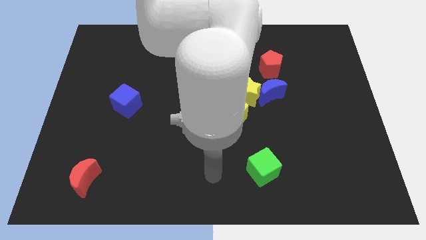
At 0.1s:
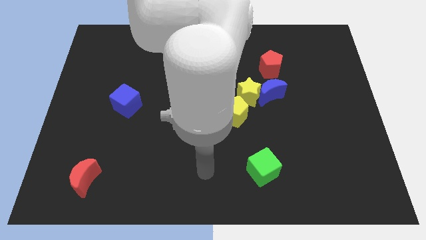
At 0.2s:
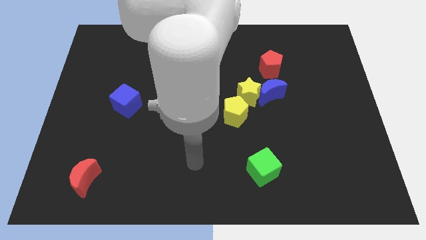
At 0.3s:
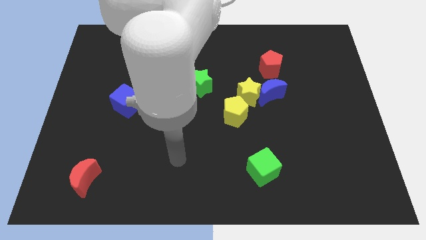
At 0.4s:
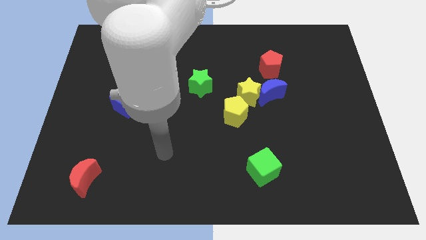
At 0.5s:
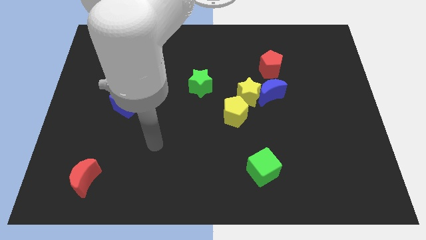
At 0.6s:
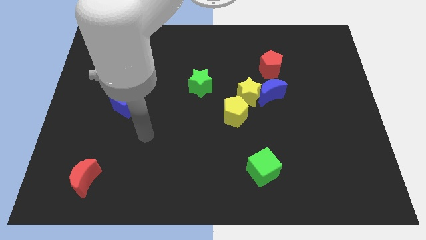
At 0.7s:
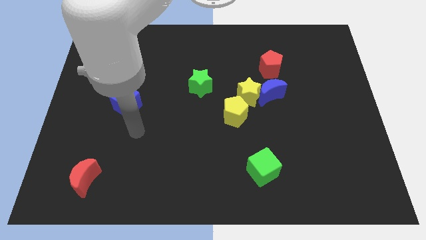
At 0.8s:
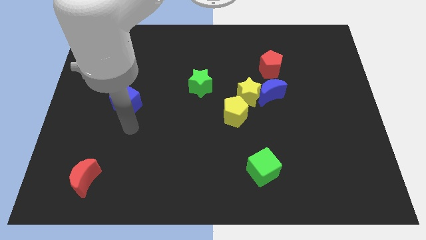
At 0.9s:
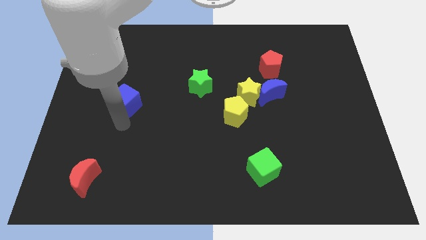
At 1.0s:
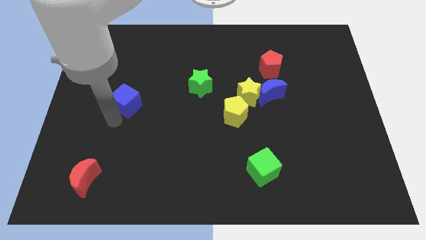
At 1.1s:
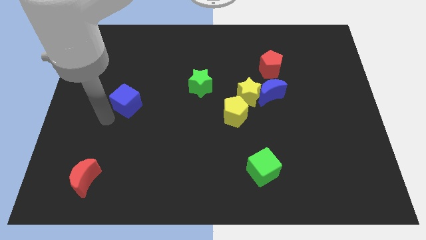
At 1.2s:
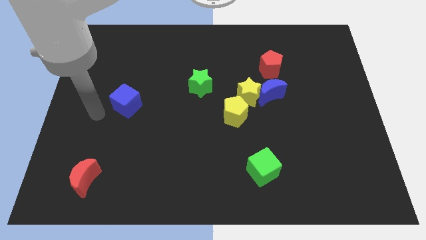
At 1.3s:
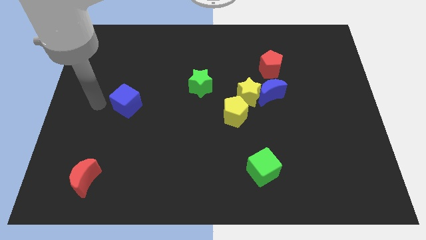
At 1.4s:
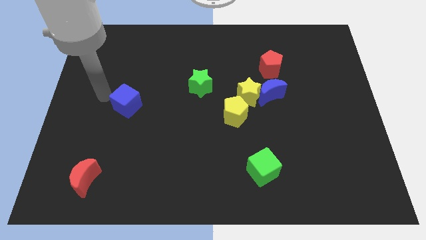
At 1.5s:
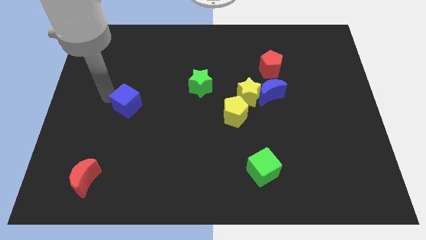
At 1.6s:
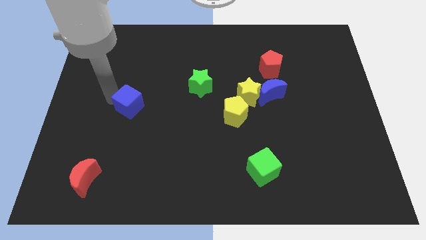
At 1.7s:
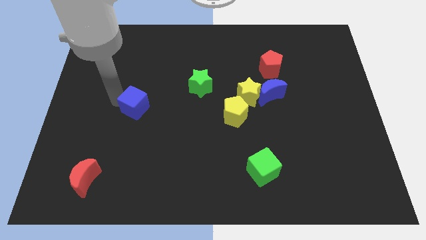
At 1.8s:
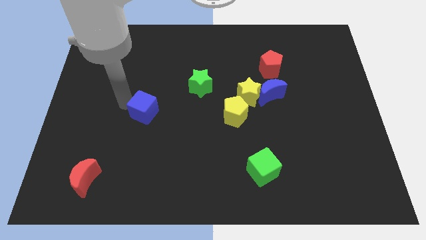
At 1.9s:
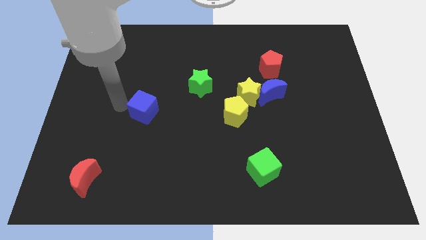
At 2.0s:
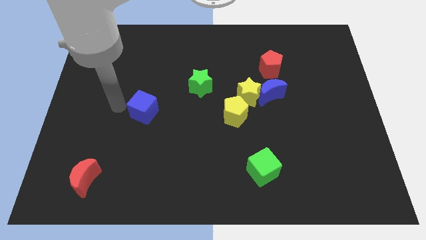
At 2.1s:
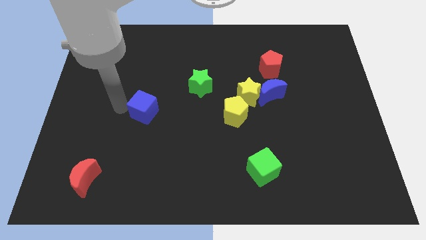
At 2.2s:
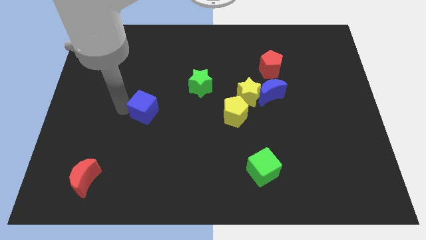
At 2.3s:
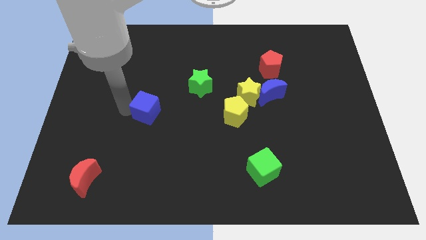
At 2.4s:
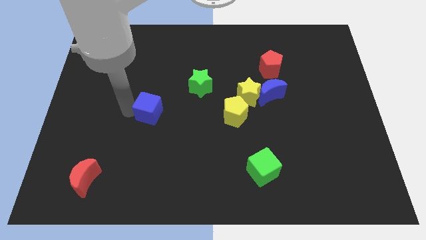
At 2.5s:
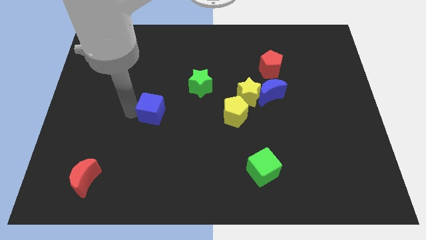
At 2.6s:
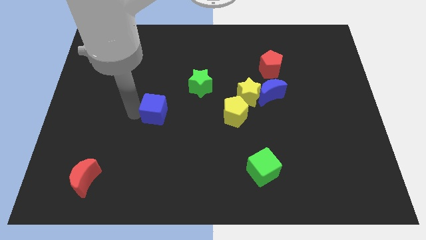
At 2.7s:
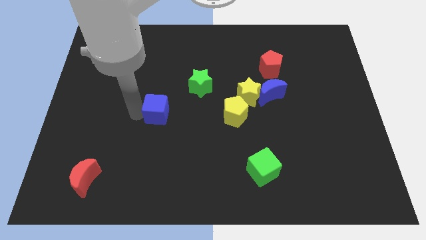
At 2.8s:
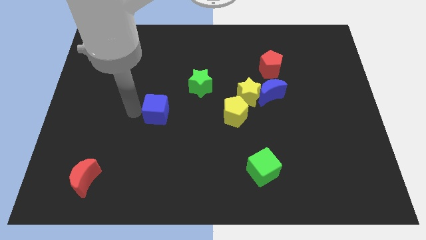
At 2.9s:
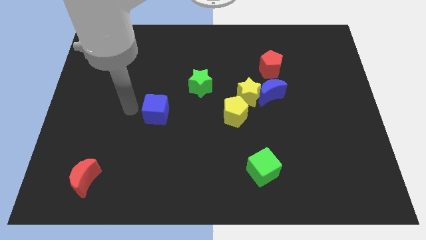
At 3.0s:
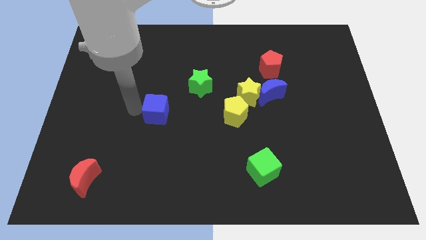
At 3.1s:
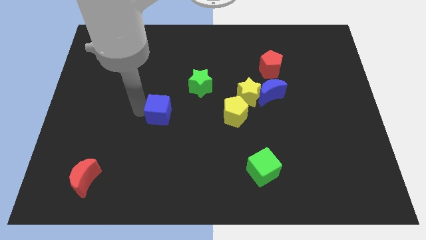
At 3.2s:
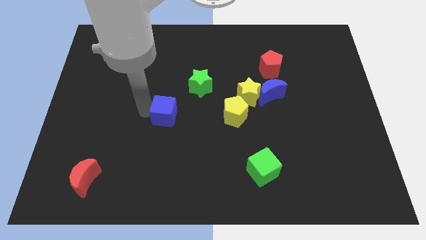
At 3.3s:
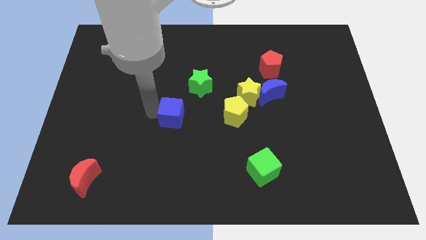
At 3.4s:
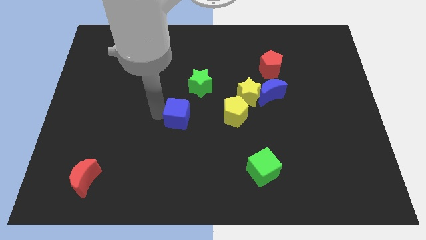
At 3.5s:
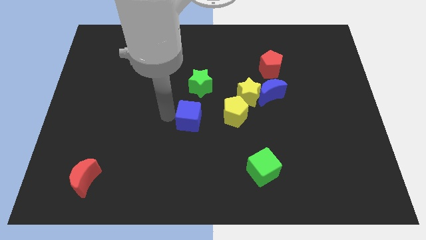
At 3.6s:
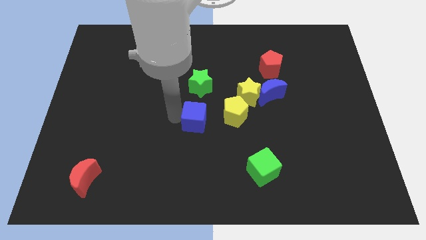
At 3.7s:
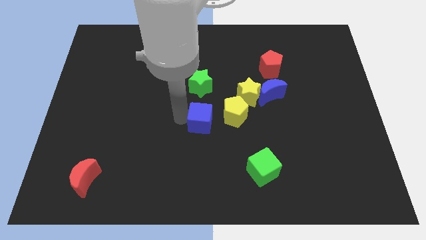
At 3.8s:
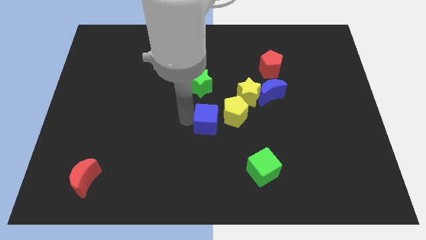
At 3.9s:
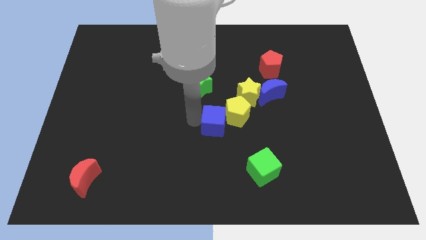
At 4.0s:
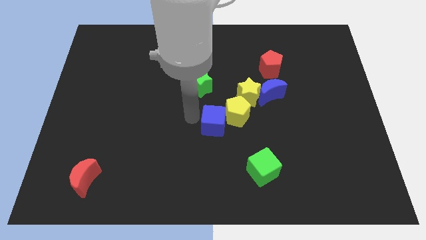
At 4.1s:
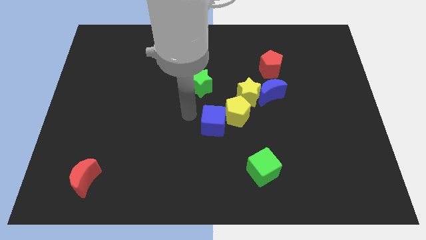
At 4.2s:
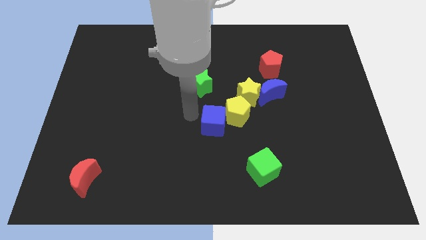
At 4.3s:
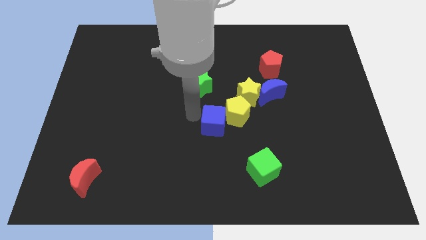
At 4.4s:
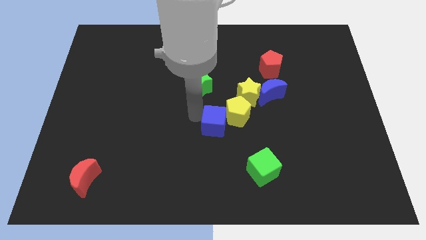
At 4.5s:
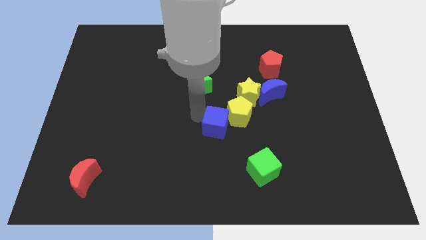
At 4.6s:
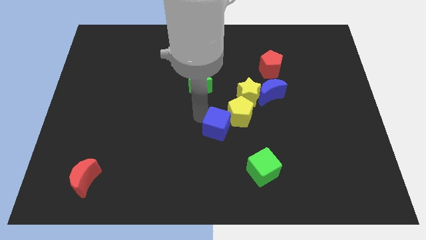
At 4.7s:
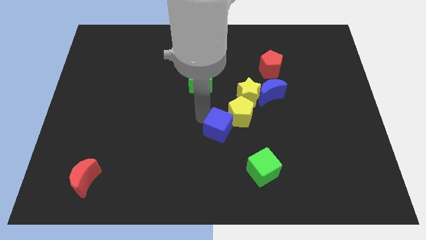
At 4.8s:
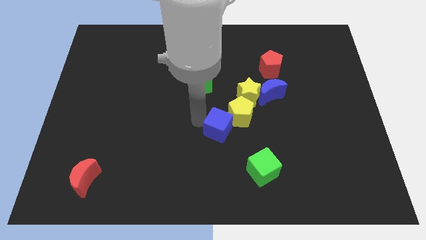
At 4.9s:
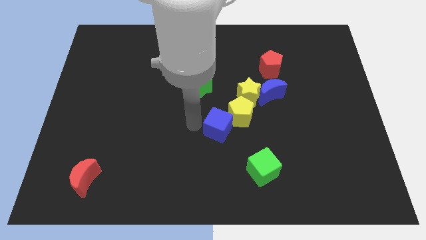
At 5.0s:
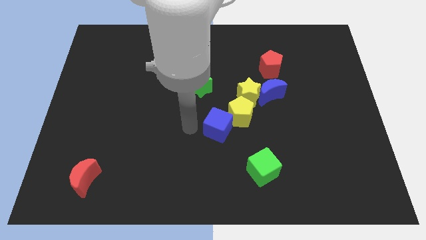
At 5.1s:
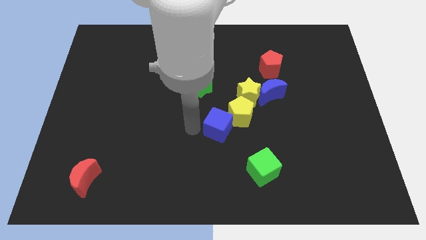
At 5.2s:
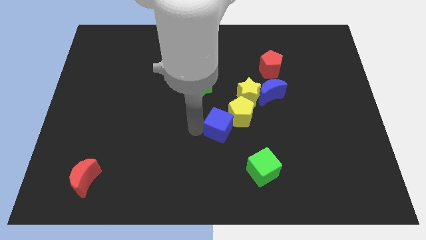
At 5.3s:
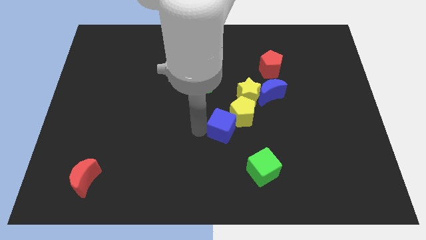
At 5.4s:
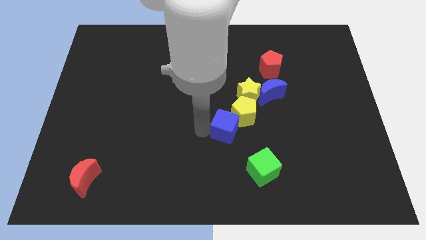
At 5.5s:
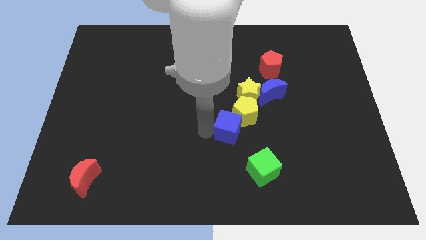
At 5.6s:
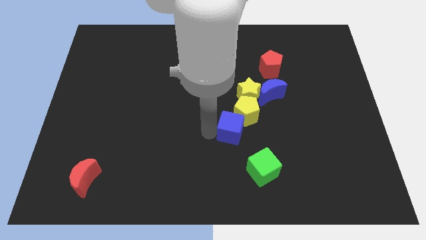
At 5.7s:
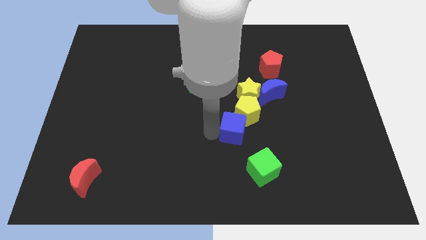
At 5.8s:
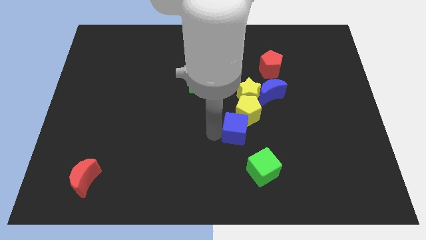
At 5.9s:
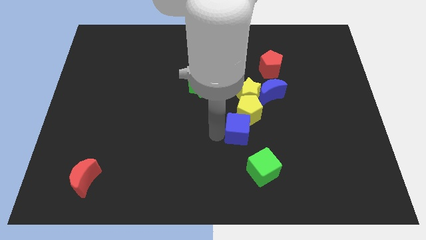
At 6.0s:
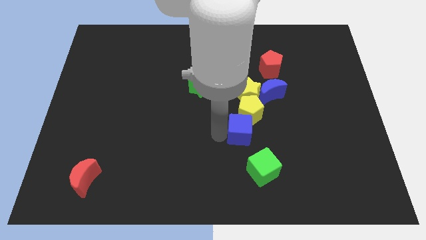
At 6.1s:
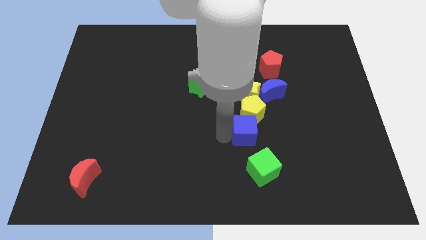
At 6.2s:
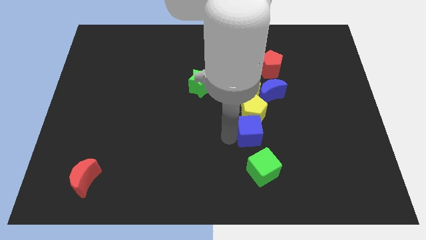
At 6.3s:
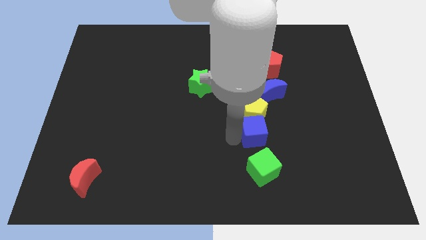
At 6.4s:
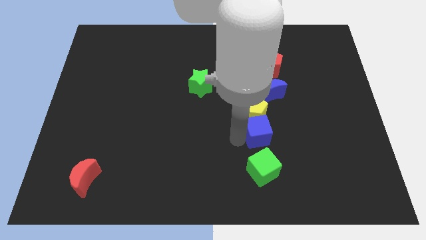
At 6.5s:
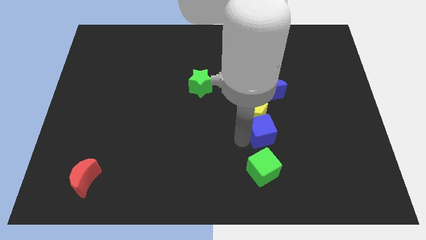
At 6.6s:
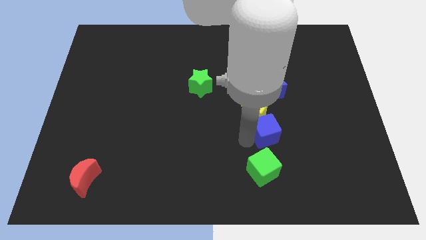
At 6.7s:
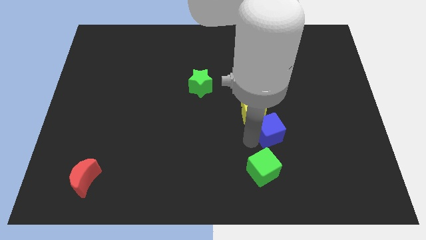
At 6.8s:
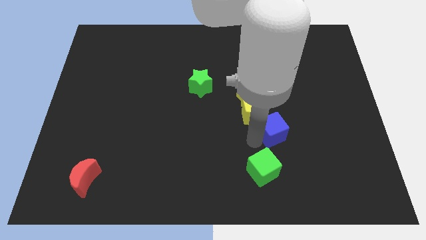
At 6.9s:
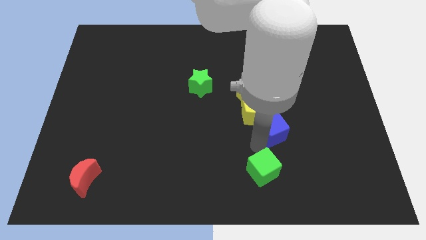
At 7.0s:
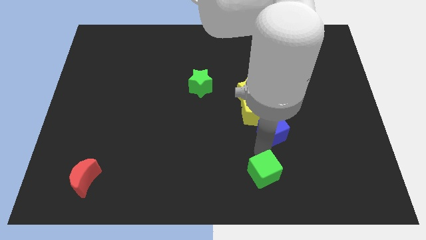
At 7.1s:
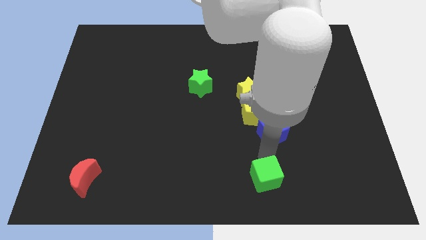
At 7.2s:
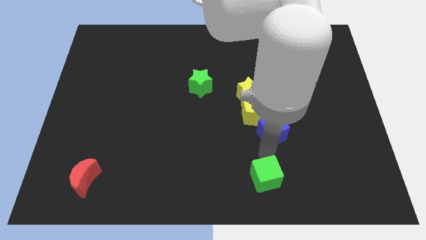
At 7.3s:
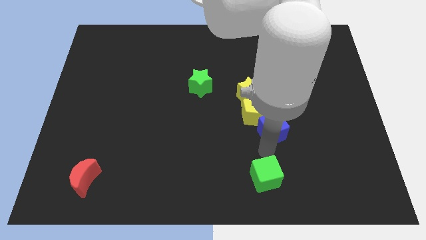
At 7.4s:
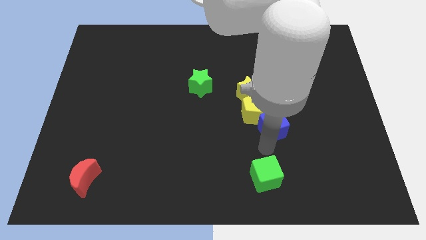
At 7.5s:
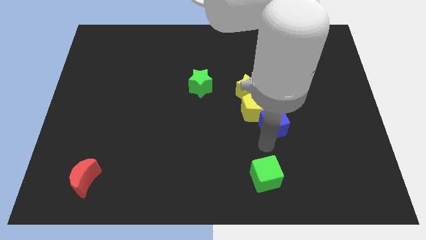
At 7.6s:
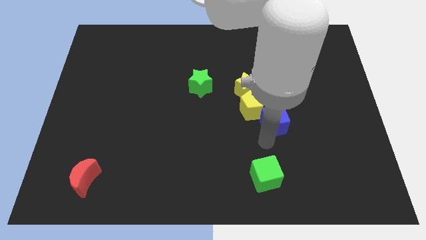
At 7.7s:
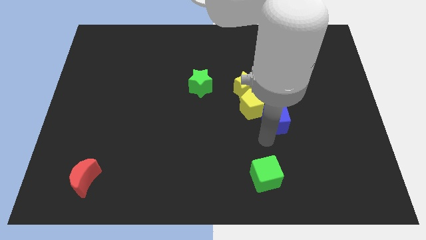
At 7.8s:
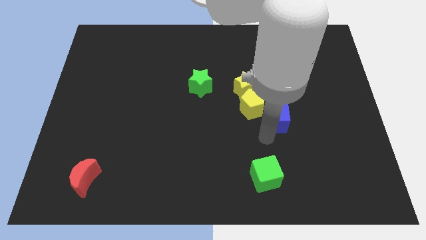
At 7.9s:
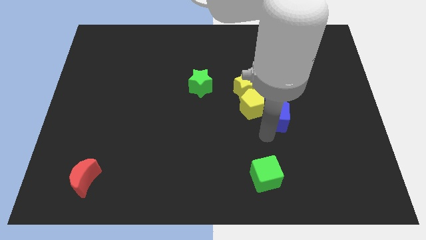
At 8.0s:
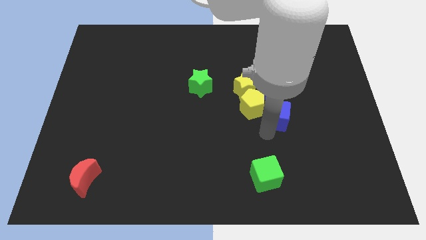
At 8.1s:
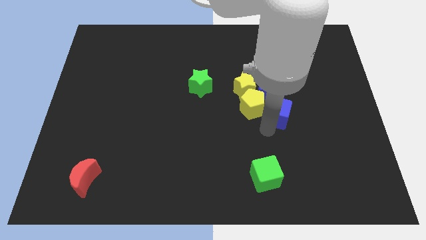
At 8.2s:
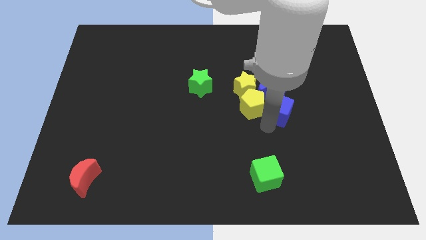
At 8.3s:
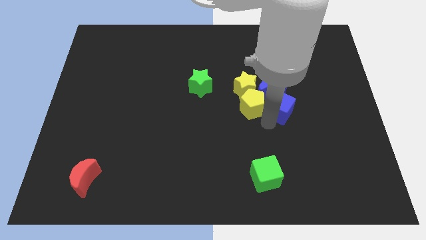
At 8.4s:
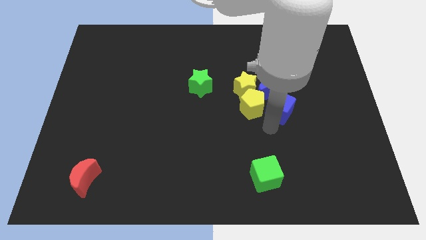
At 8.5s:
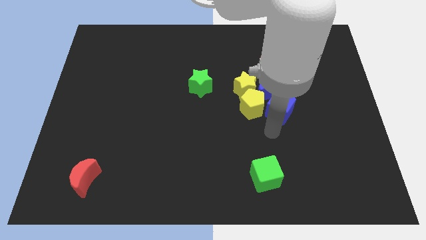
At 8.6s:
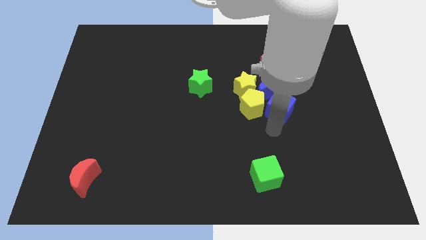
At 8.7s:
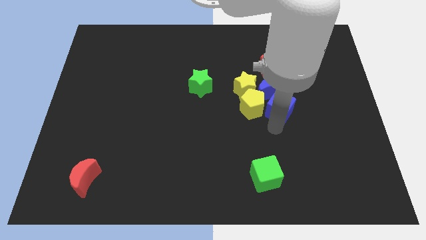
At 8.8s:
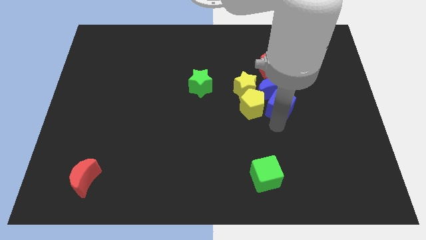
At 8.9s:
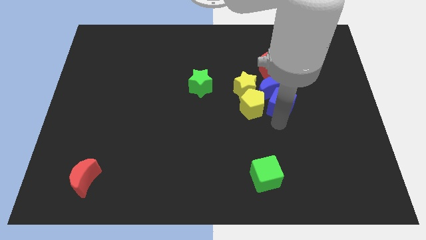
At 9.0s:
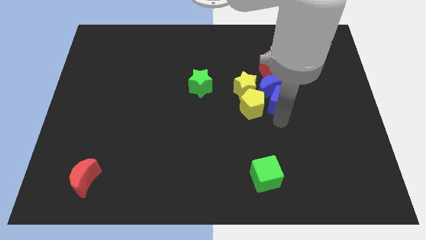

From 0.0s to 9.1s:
push the blue cube to the right side of the yellow star
